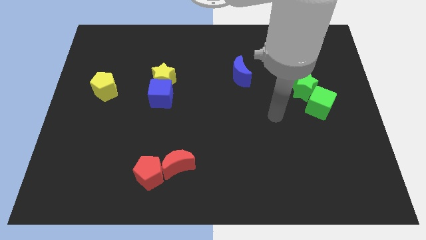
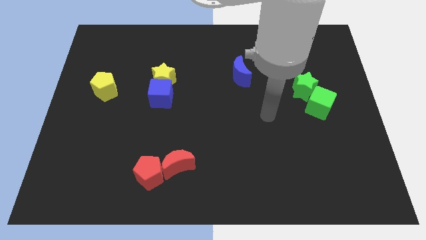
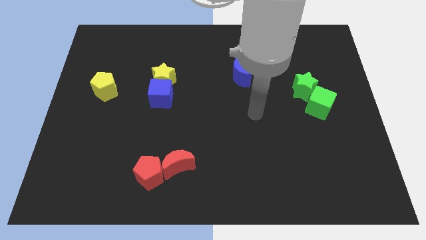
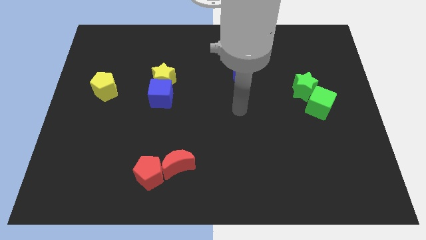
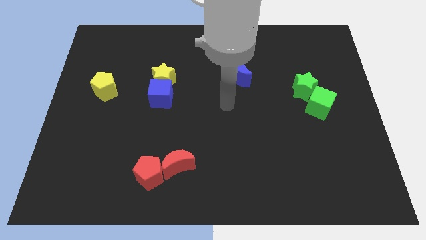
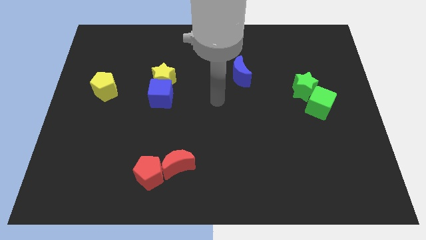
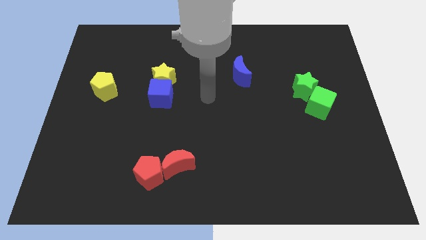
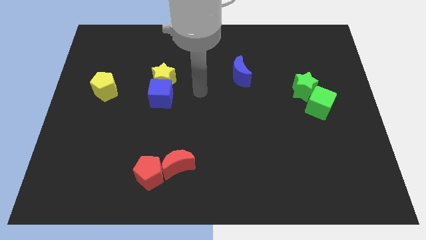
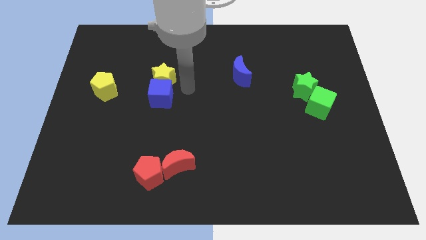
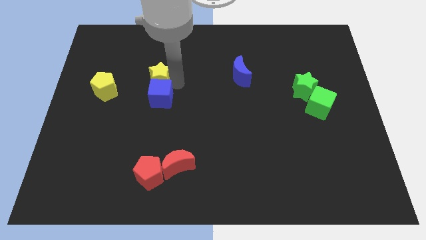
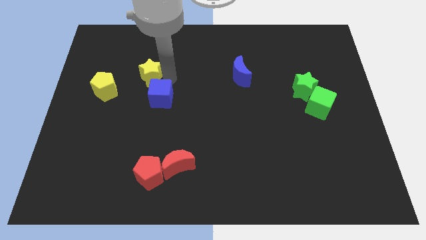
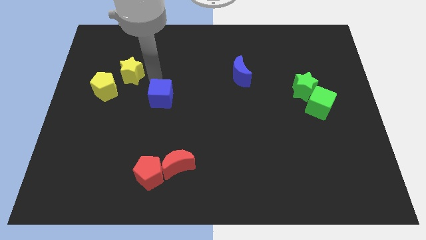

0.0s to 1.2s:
separate the blue cube from the yellow star

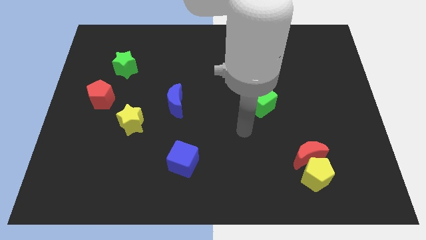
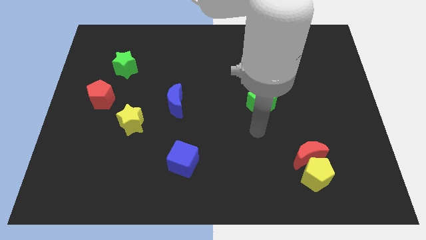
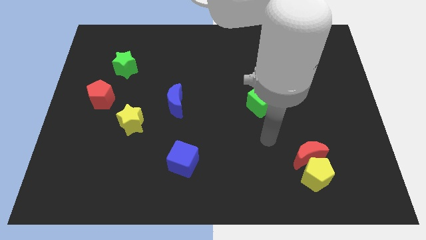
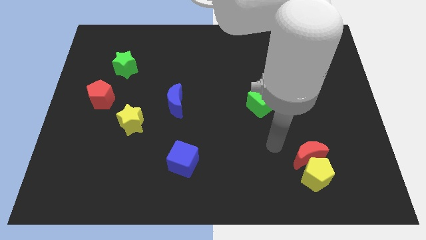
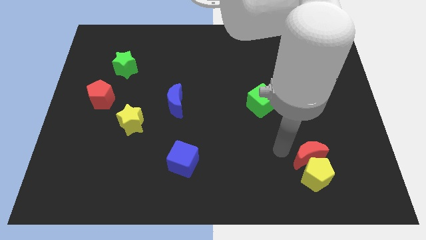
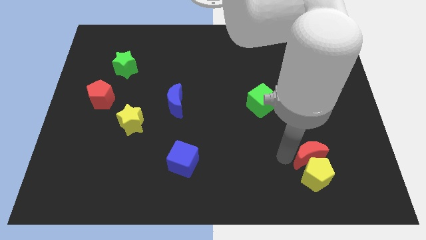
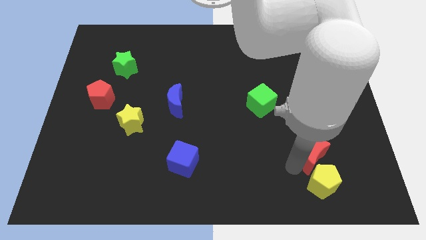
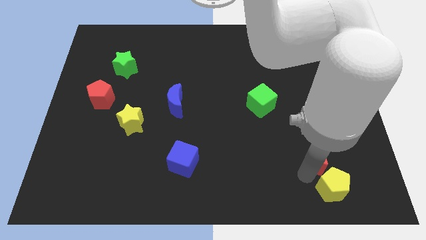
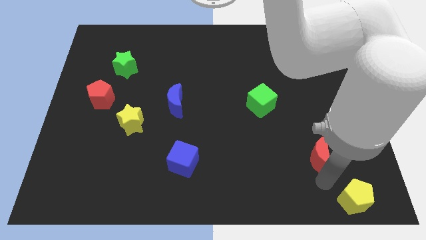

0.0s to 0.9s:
separate the red moon from the yellow pentagon

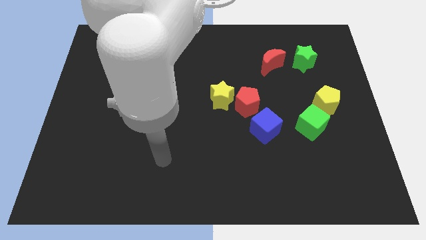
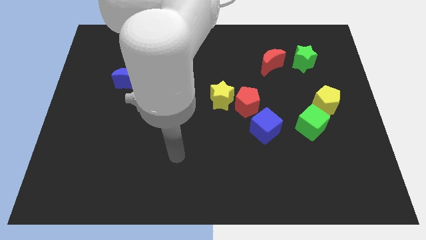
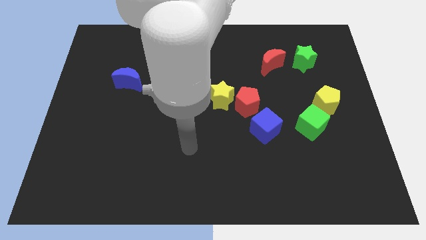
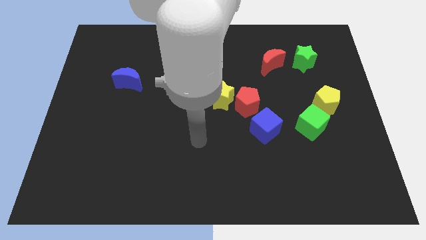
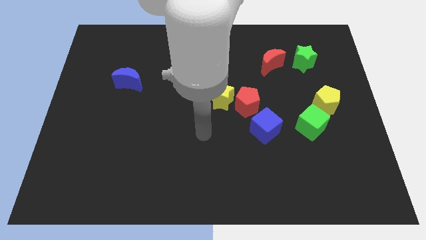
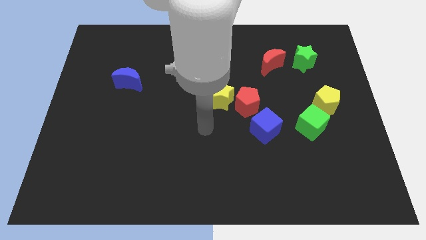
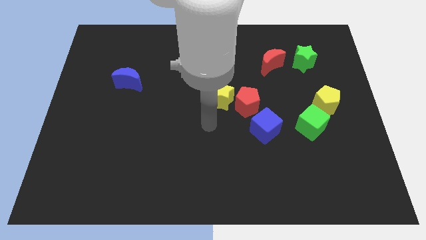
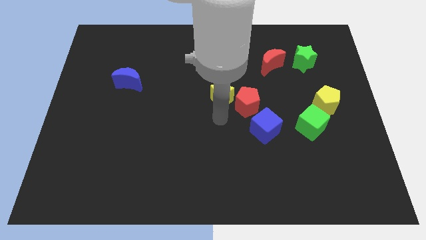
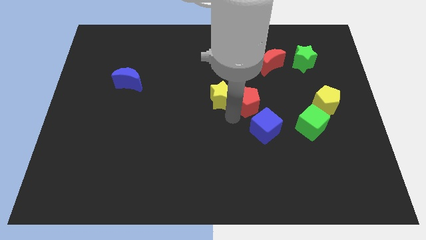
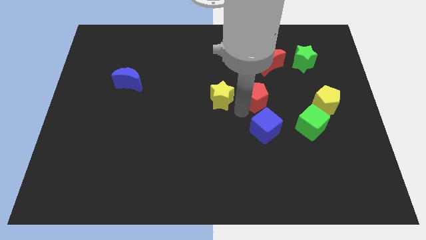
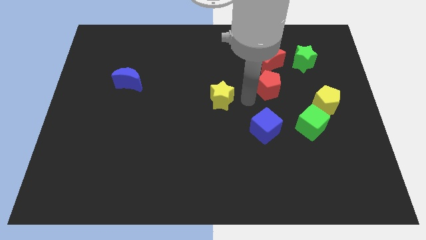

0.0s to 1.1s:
separate the yellow star from the red pentagon

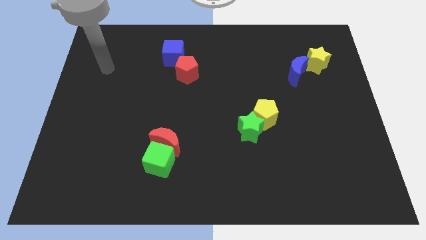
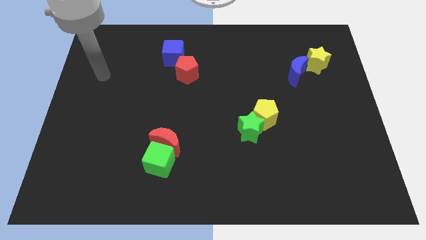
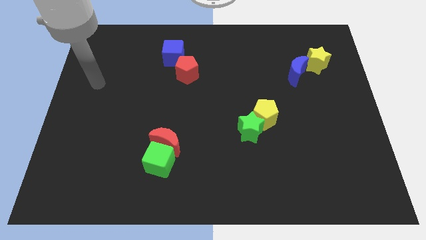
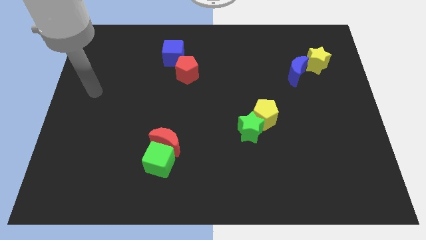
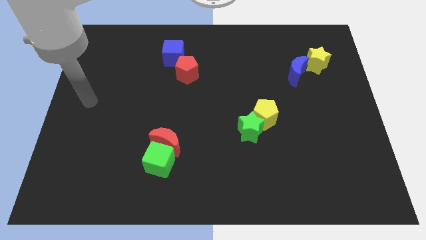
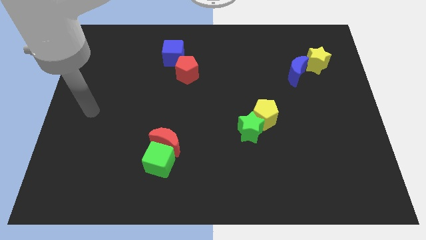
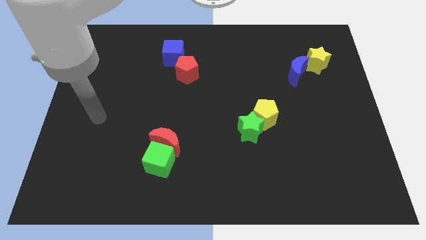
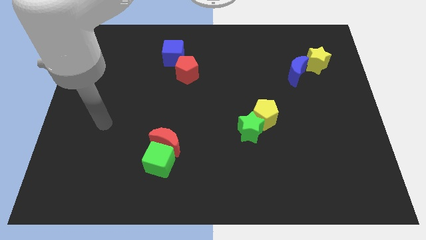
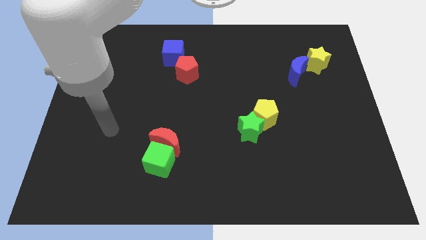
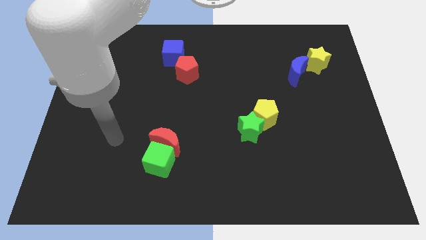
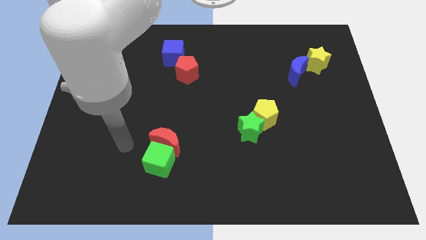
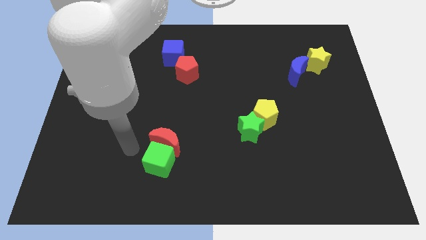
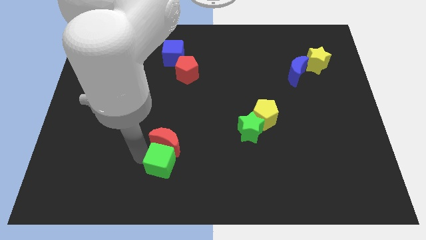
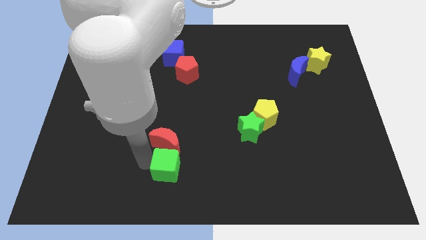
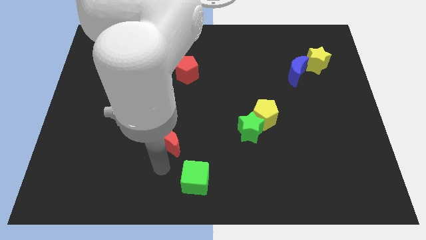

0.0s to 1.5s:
pull the red moon apart from the green cube

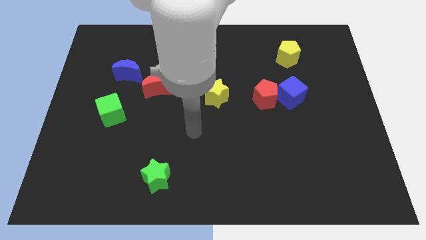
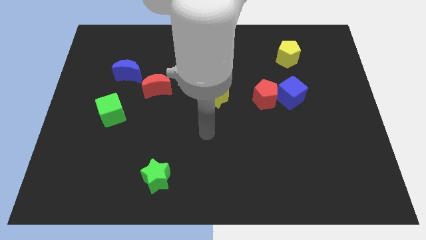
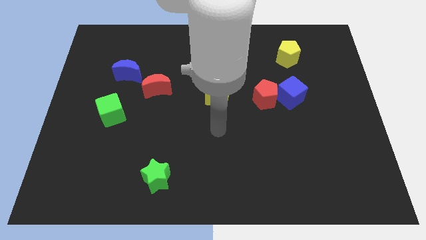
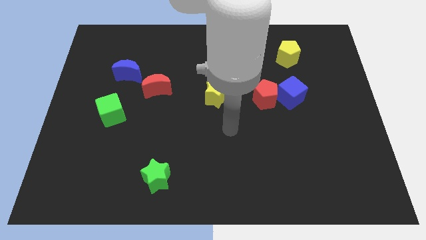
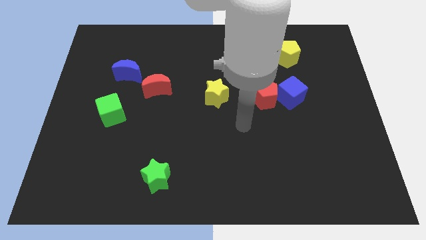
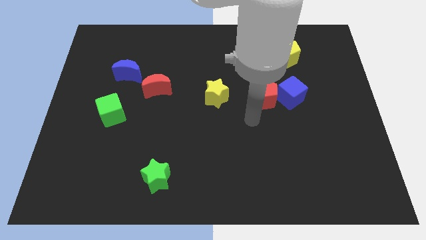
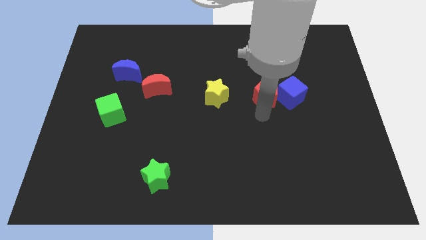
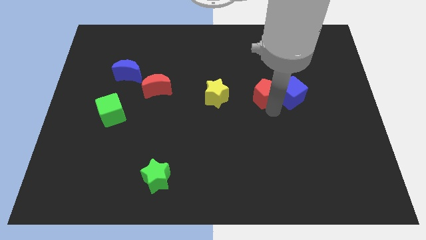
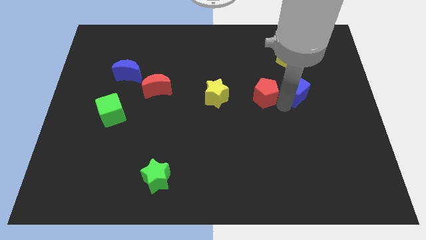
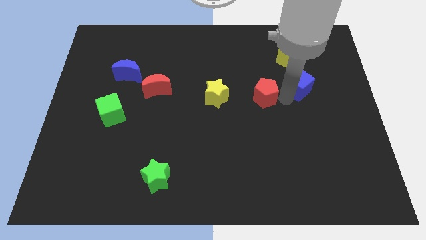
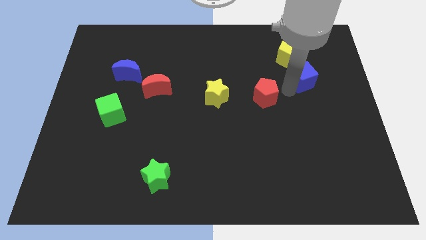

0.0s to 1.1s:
pull the red pentagon apart from the blue cube

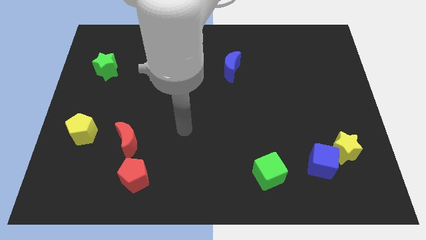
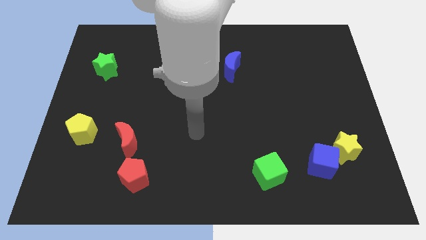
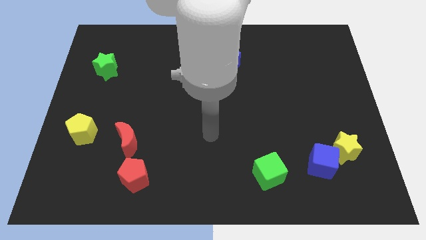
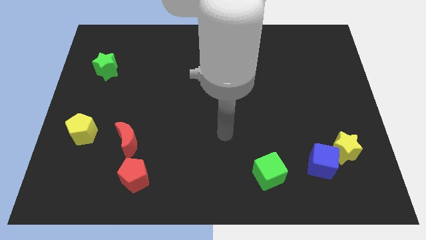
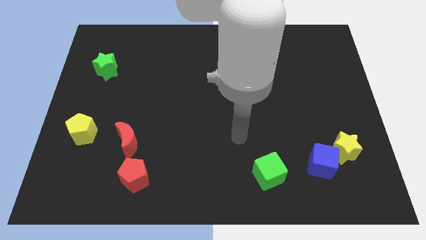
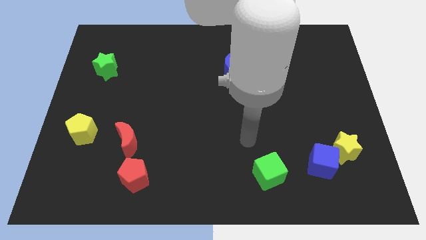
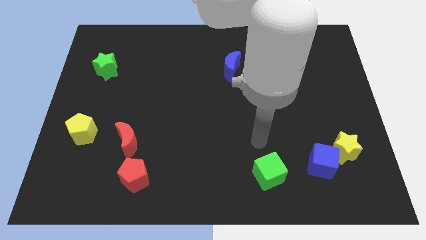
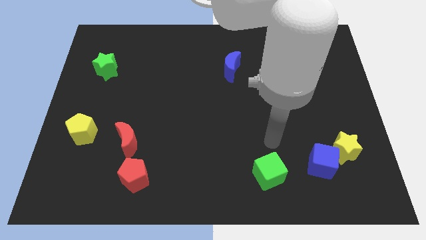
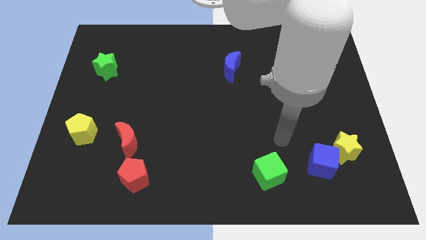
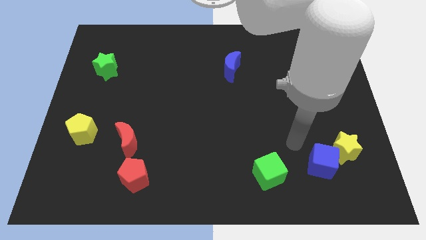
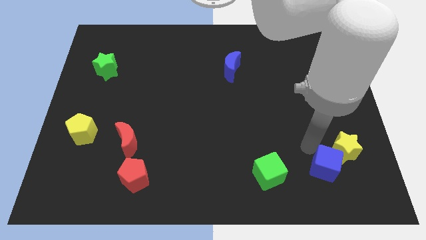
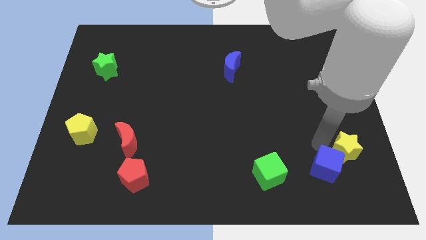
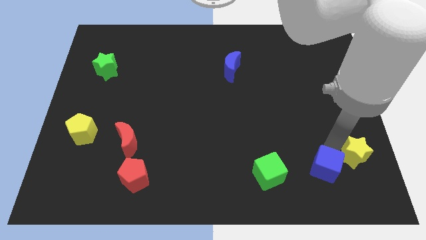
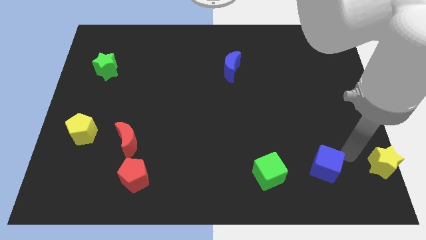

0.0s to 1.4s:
move the blue cube away from the yellow star

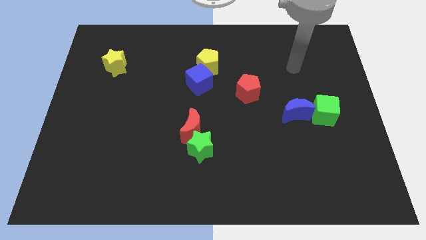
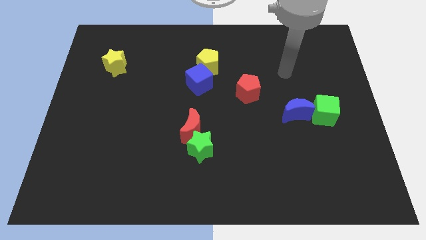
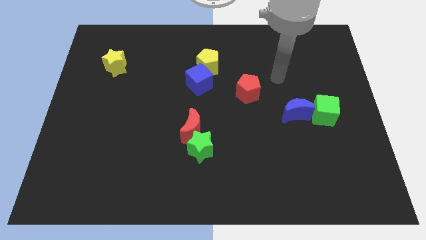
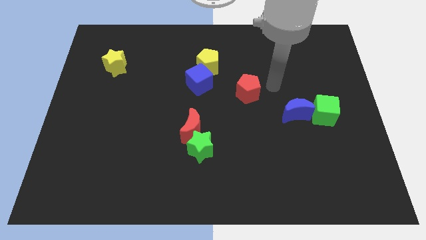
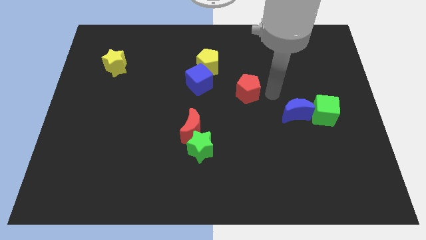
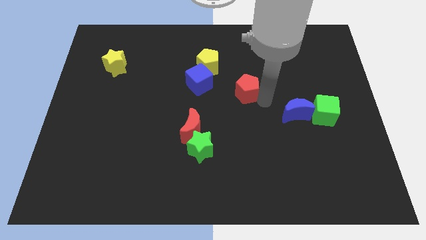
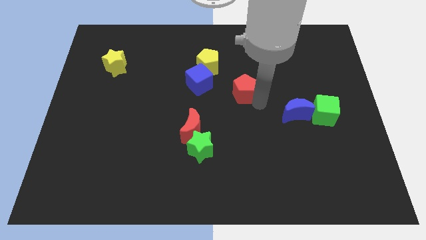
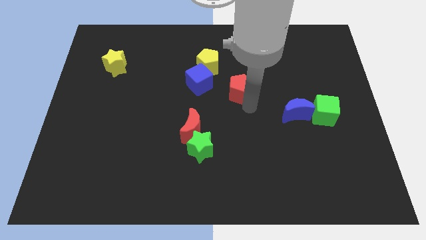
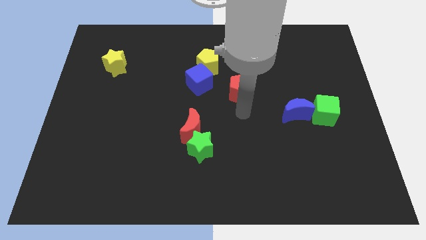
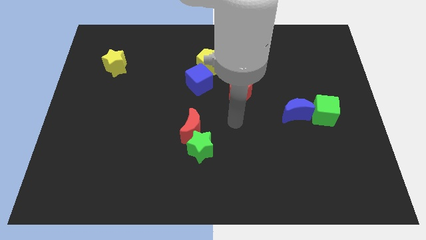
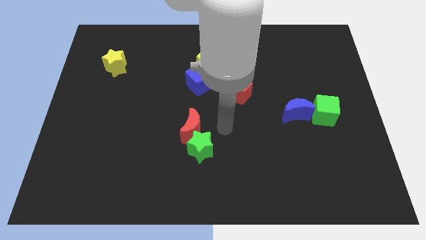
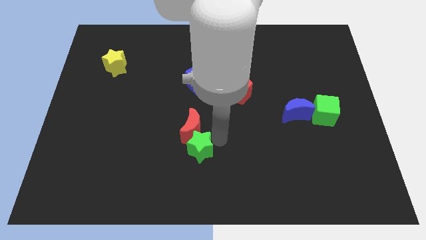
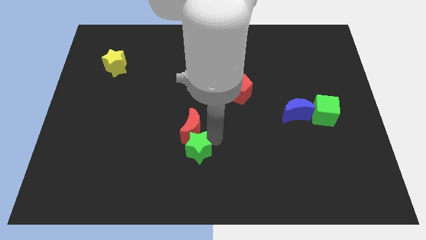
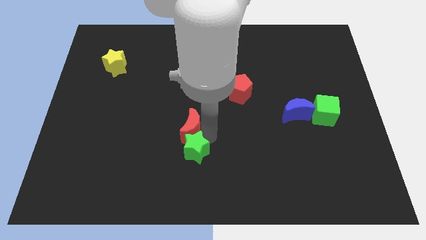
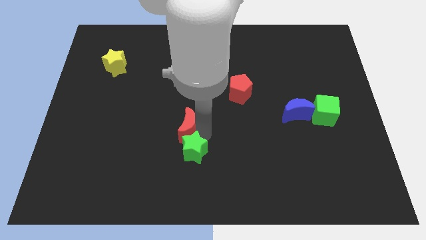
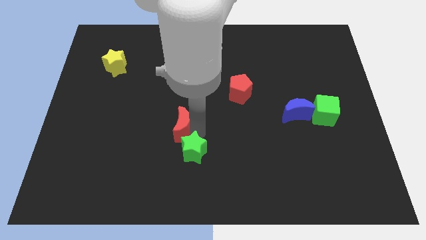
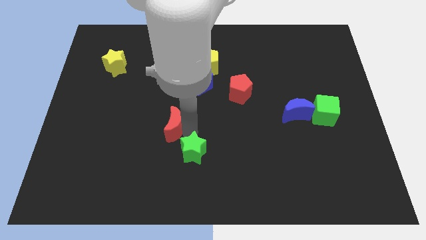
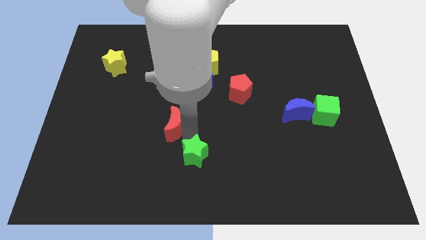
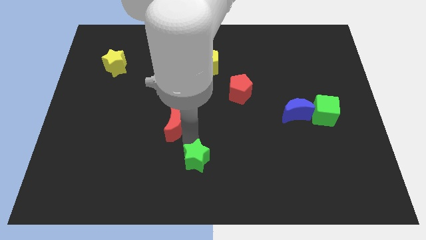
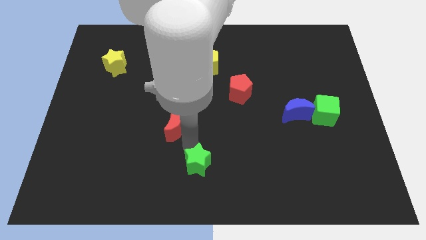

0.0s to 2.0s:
pull the red moon apart from the green star
